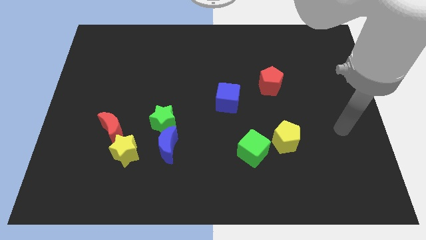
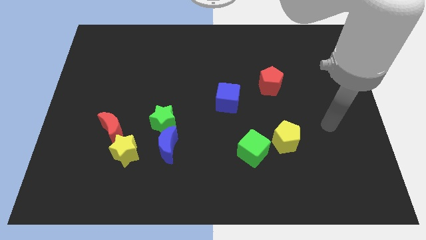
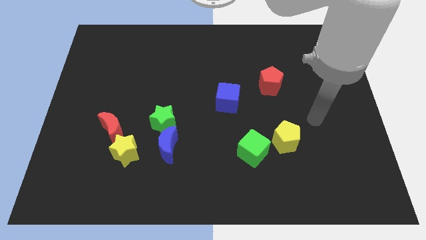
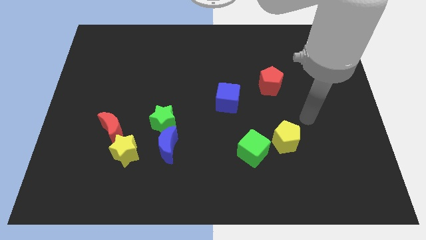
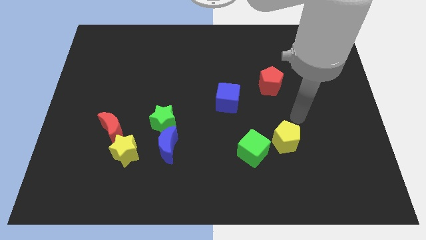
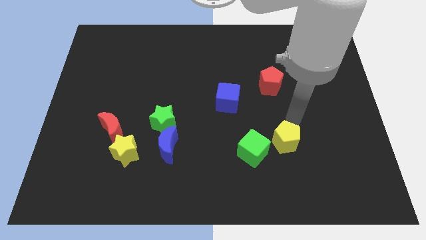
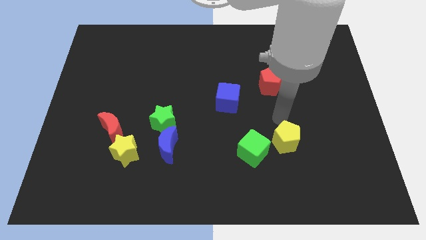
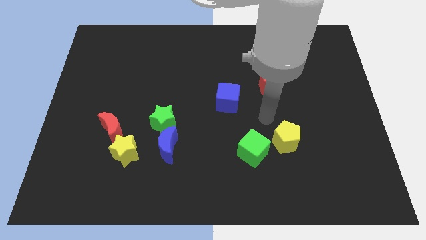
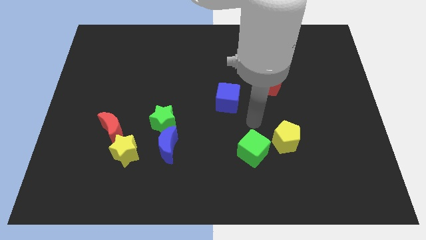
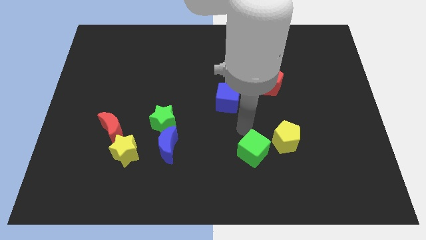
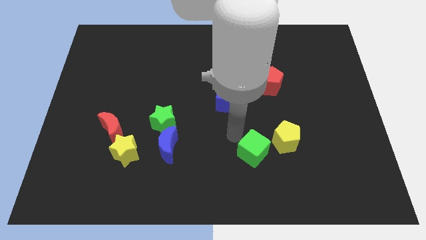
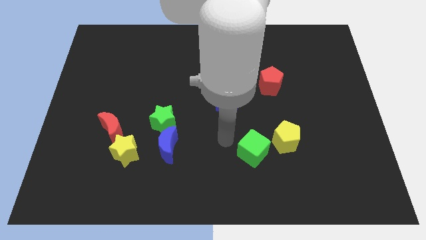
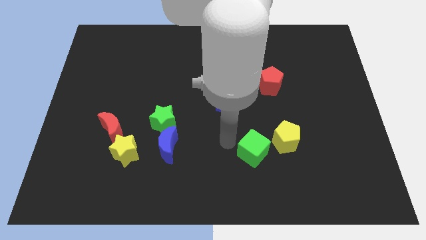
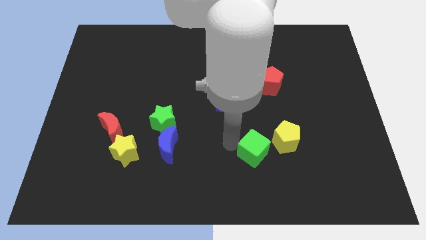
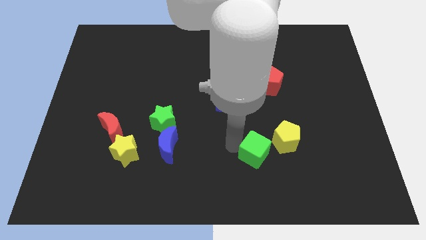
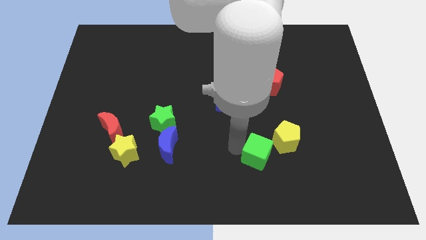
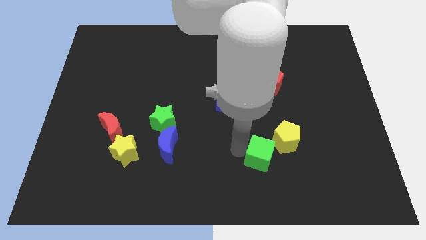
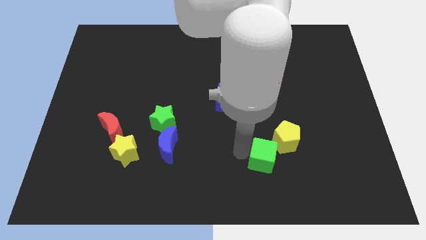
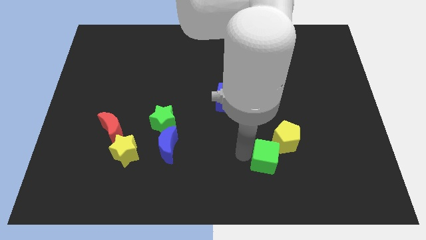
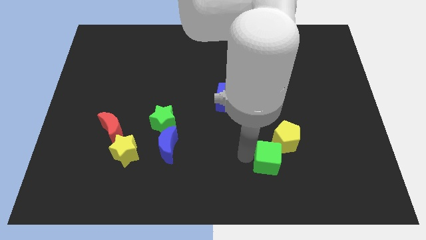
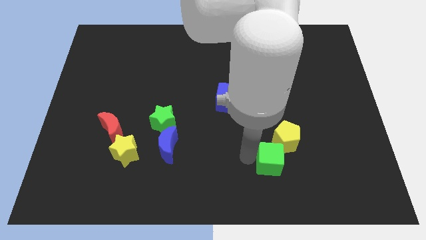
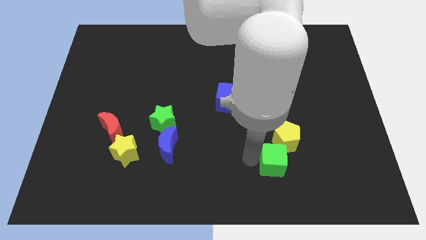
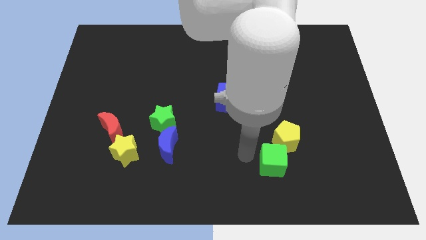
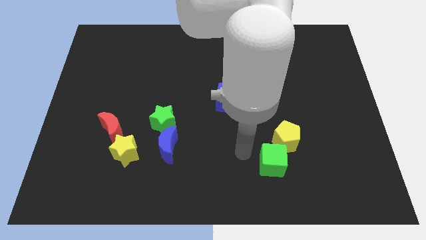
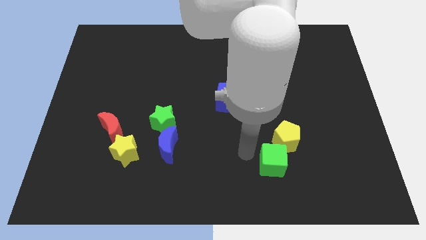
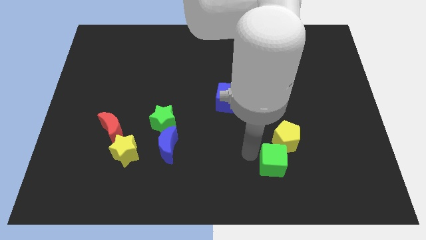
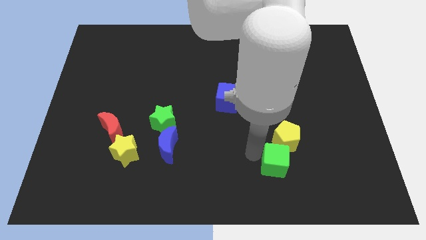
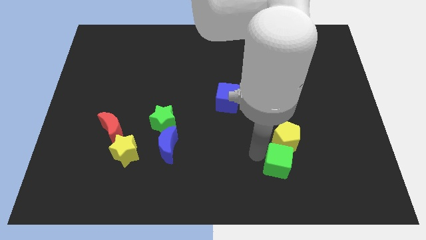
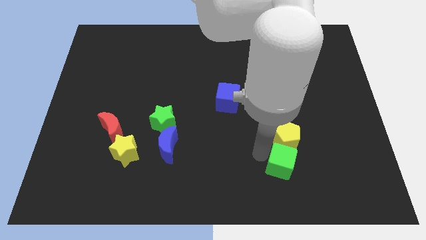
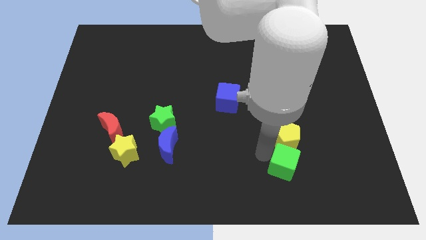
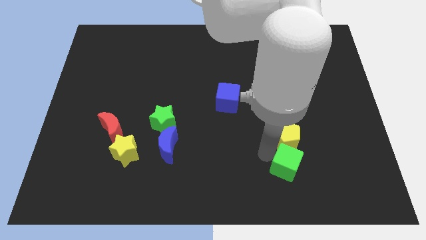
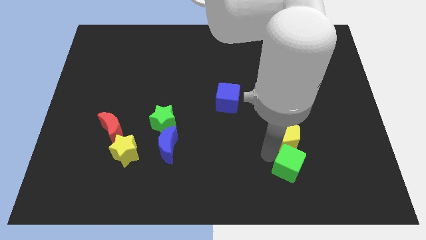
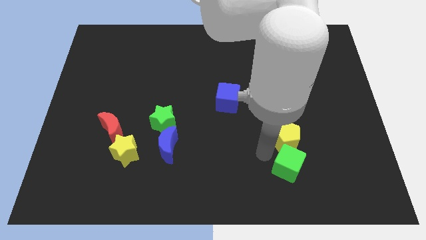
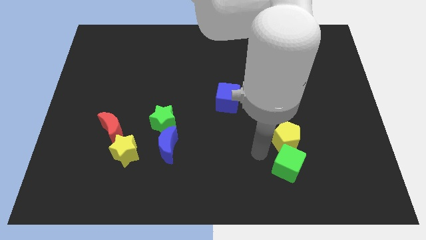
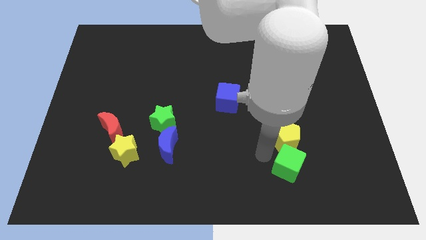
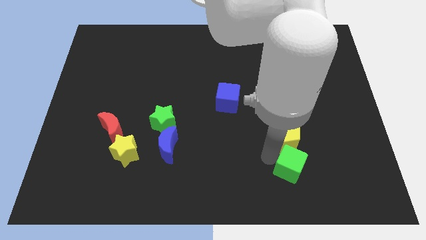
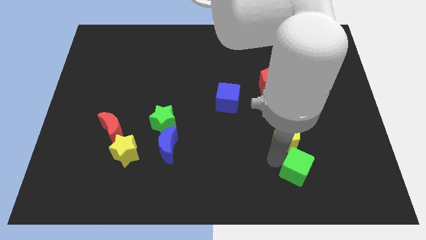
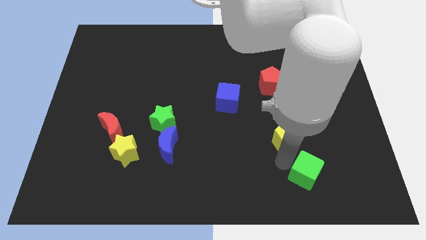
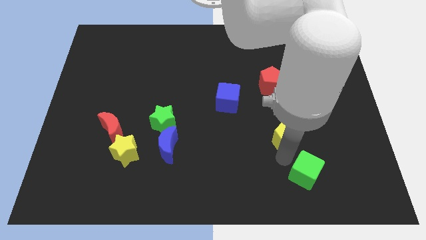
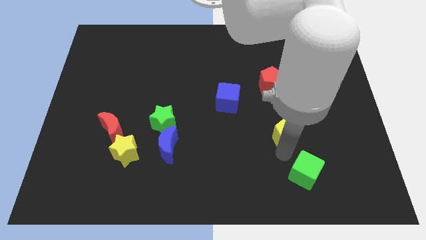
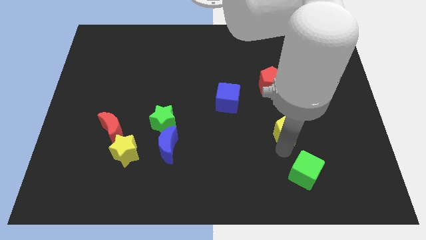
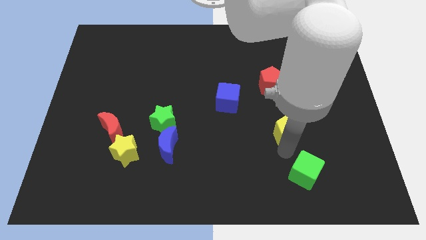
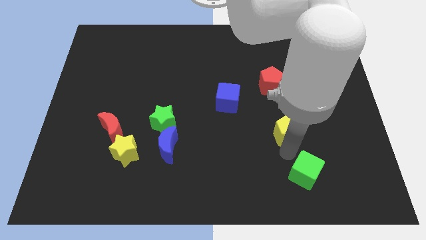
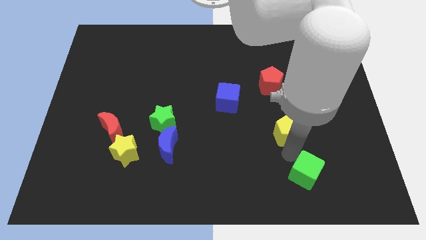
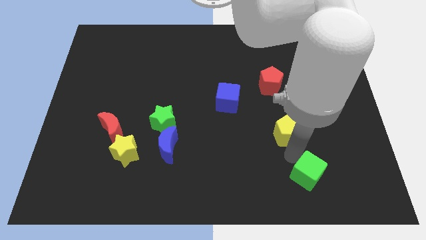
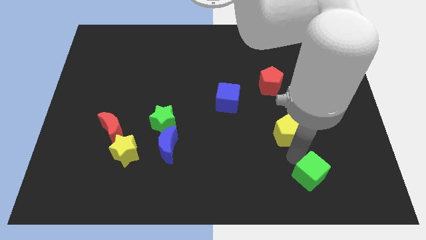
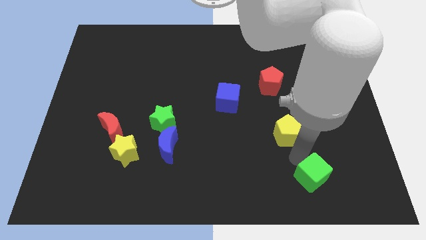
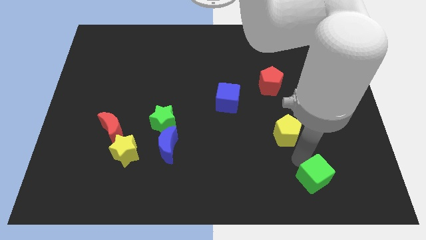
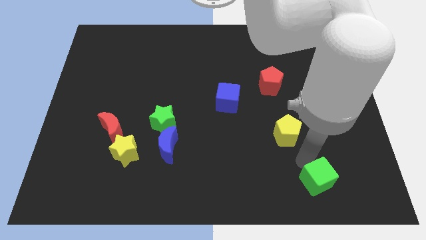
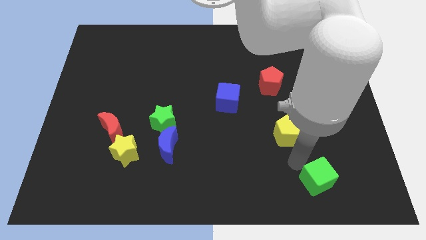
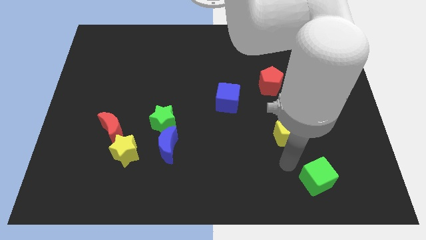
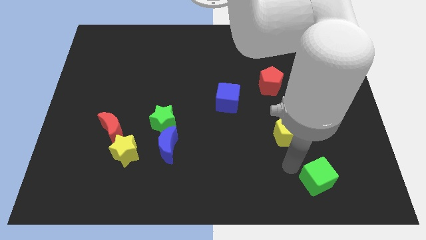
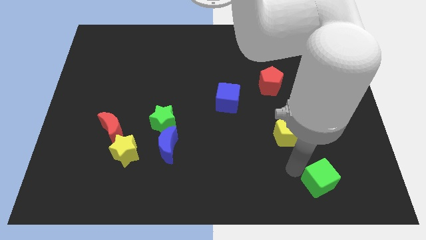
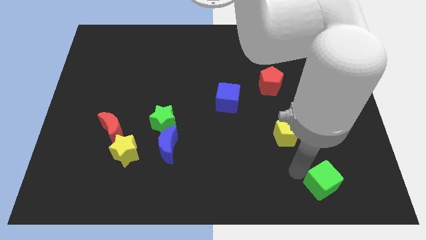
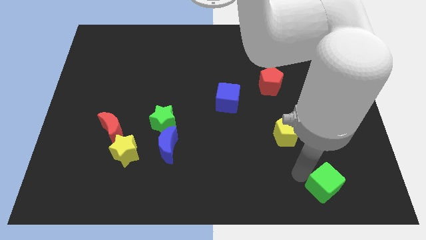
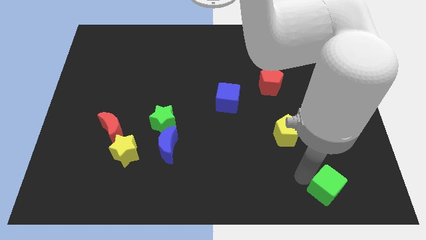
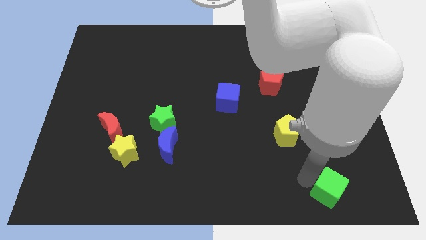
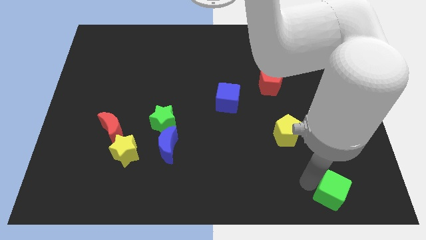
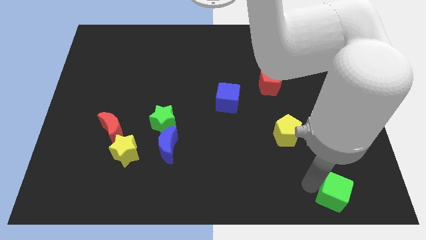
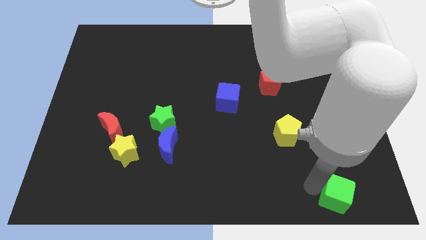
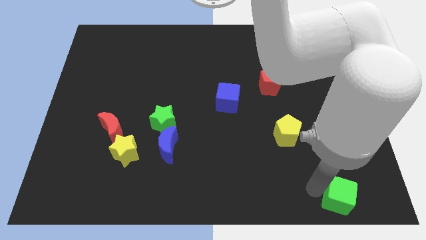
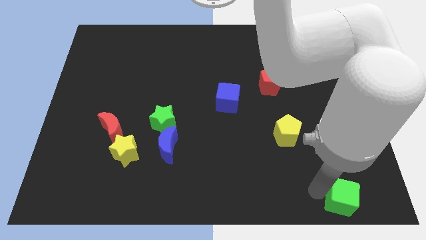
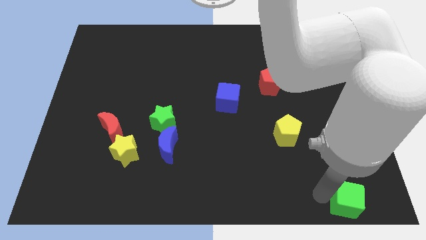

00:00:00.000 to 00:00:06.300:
put the green cube to the bottom right
